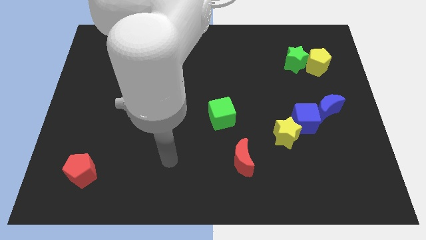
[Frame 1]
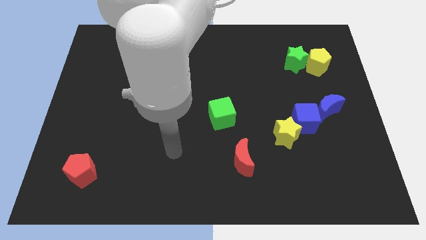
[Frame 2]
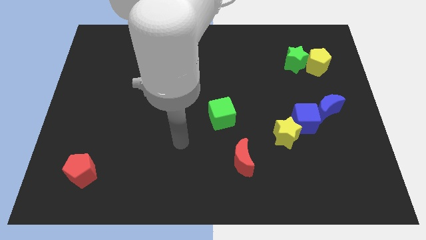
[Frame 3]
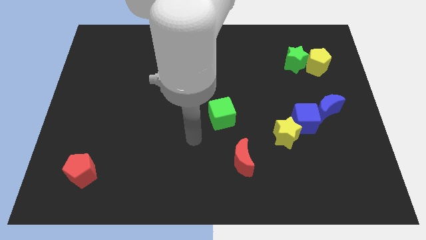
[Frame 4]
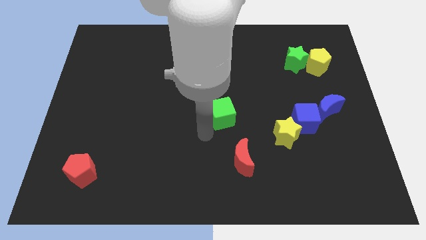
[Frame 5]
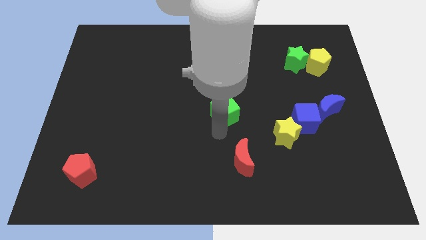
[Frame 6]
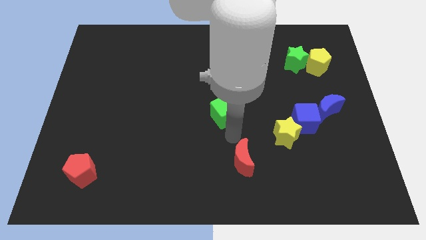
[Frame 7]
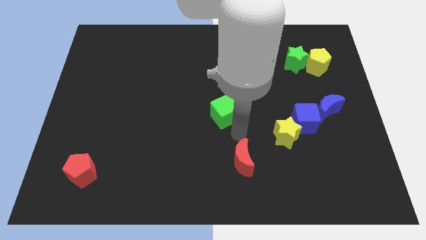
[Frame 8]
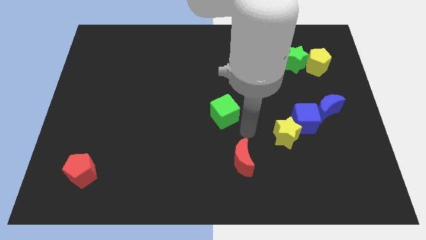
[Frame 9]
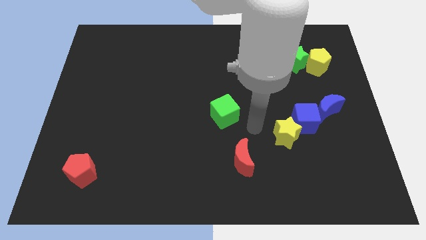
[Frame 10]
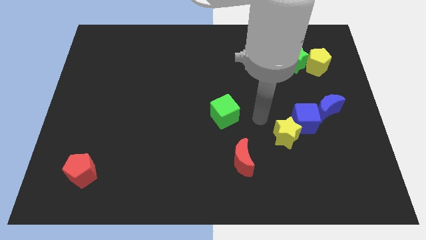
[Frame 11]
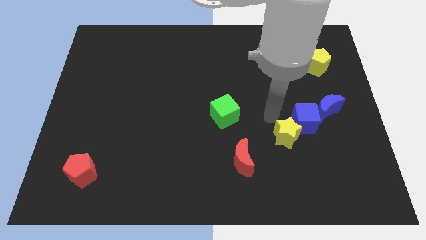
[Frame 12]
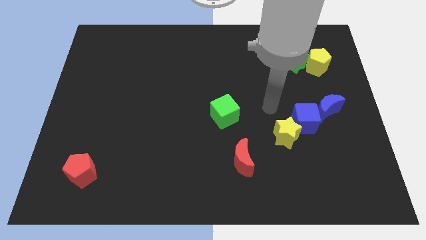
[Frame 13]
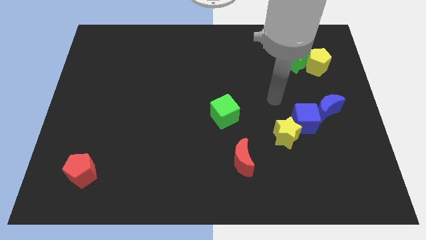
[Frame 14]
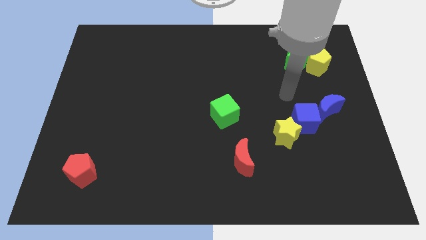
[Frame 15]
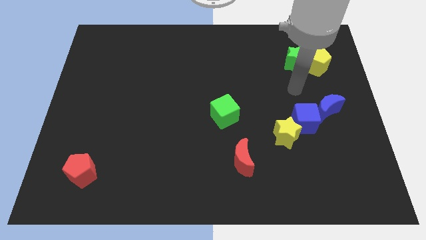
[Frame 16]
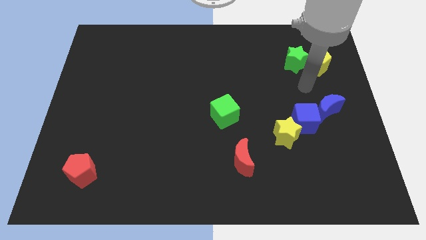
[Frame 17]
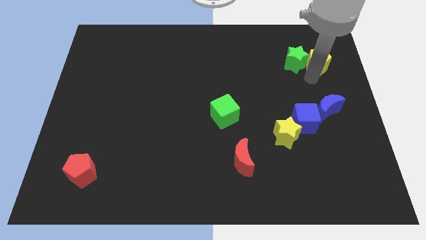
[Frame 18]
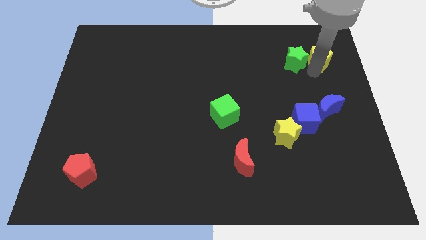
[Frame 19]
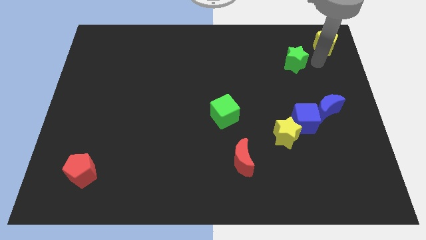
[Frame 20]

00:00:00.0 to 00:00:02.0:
separate the green star from the yellow pentagon

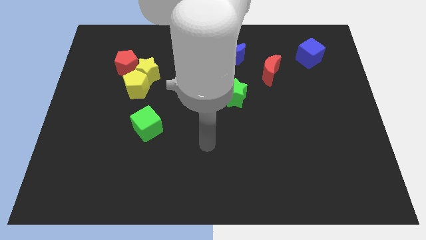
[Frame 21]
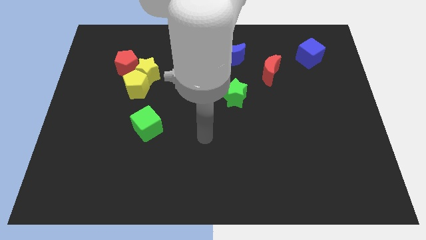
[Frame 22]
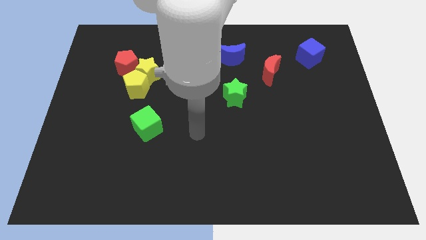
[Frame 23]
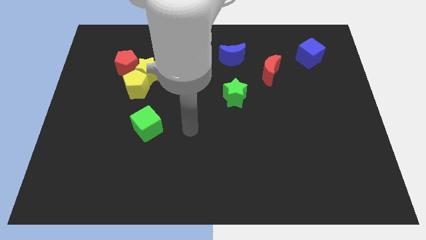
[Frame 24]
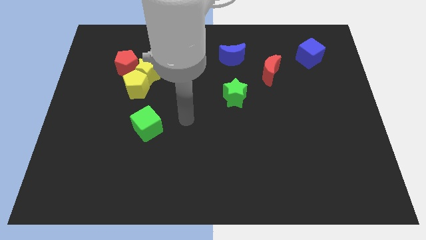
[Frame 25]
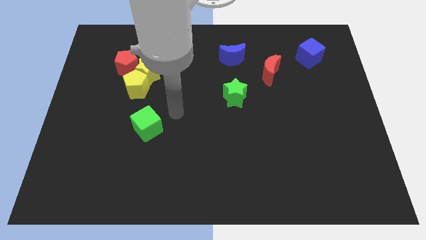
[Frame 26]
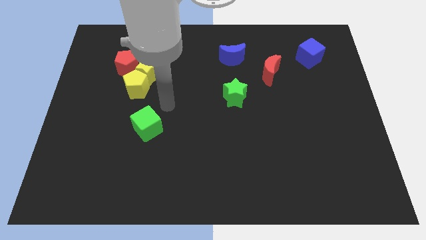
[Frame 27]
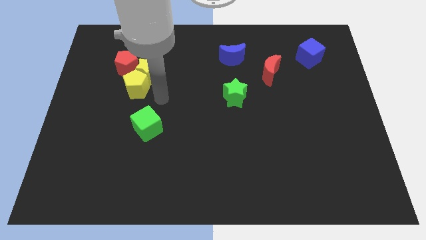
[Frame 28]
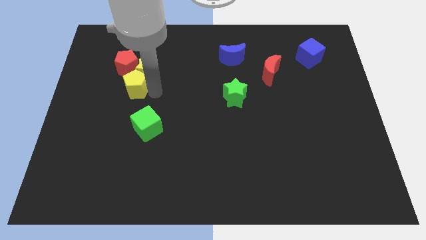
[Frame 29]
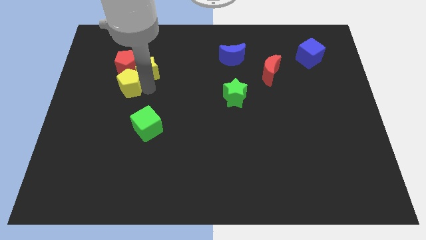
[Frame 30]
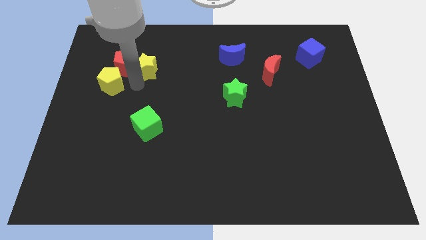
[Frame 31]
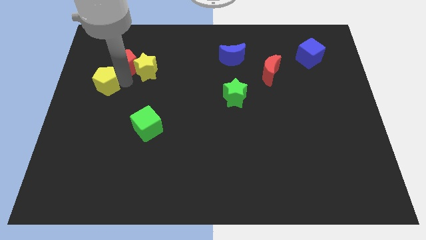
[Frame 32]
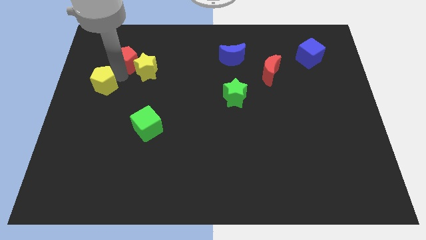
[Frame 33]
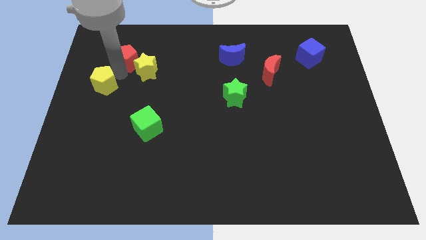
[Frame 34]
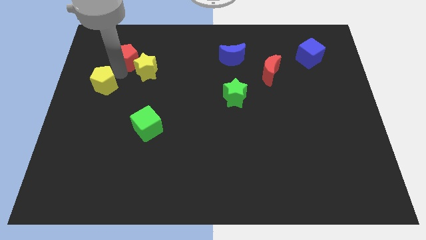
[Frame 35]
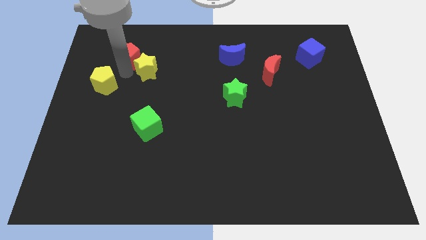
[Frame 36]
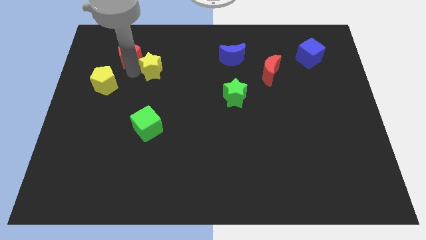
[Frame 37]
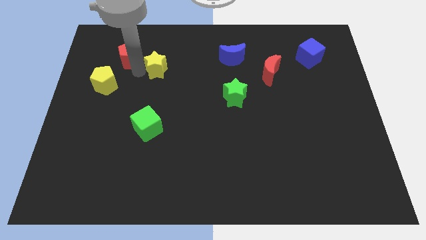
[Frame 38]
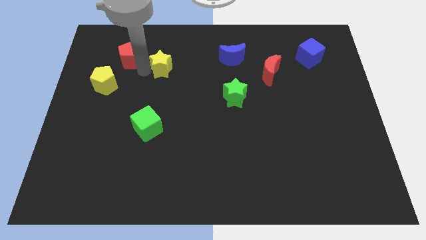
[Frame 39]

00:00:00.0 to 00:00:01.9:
pull the yellow star apart from the yellow pentagon and red pentagon

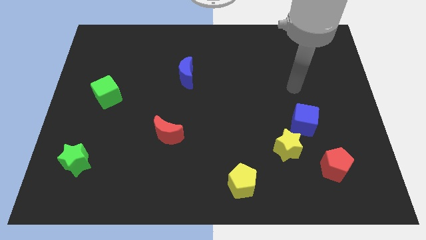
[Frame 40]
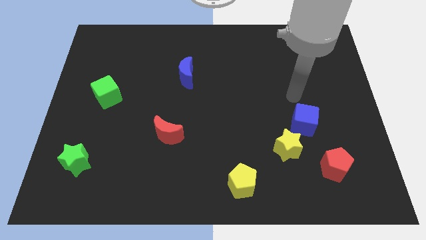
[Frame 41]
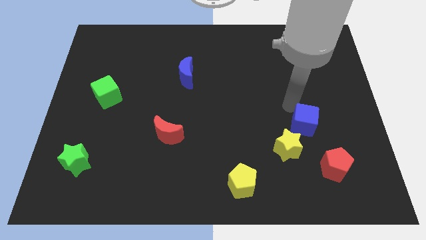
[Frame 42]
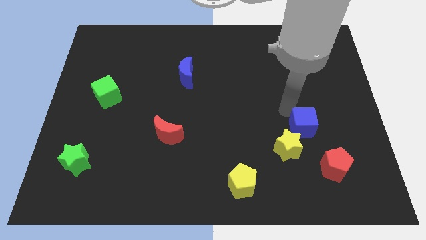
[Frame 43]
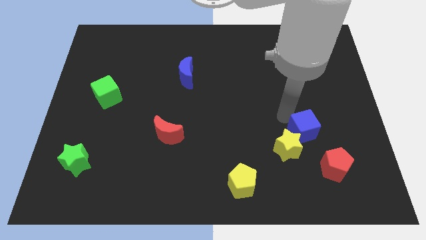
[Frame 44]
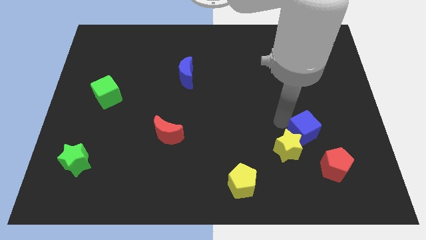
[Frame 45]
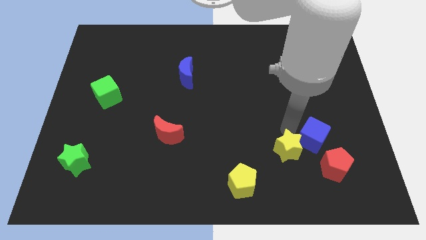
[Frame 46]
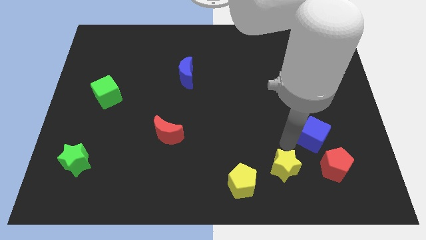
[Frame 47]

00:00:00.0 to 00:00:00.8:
separate the blue cube from the yellow star

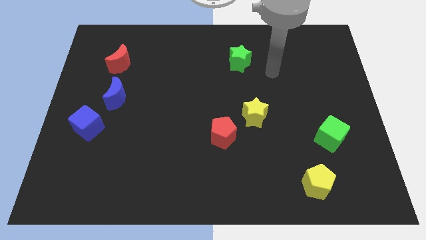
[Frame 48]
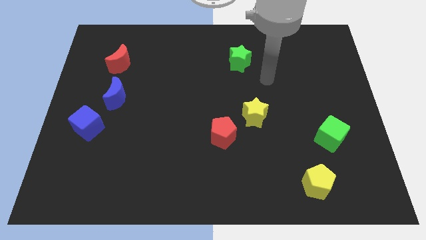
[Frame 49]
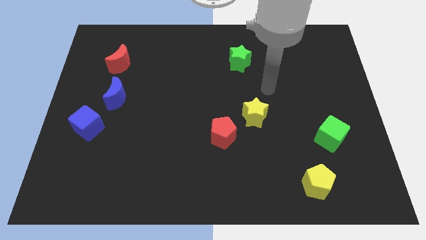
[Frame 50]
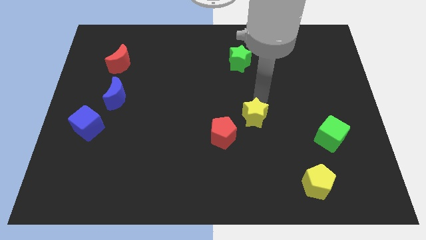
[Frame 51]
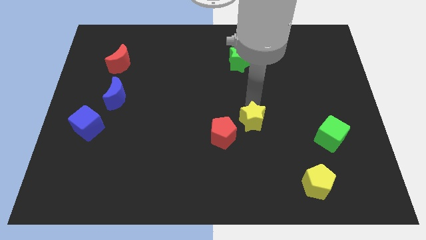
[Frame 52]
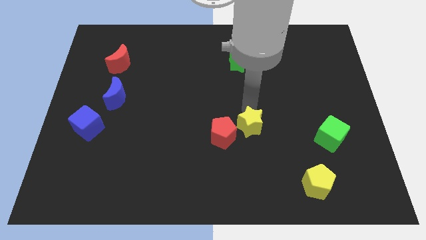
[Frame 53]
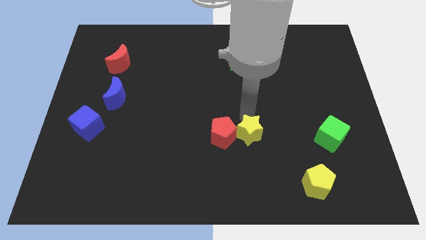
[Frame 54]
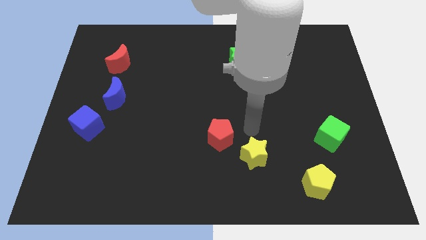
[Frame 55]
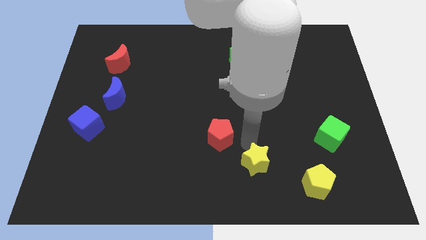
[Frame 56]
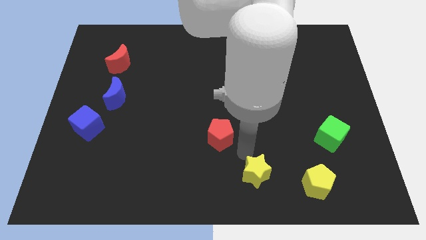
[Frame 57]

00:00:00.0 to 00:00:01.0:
pull the red pentagon apart from the yellow star

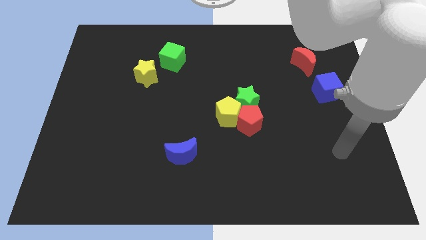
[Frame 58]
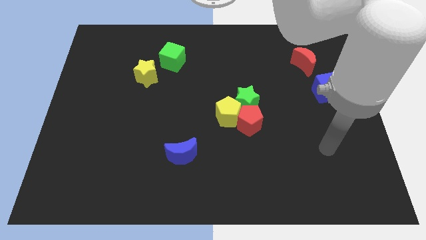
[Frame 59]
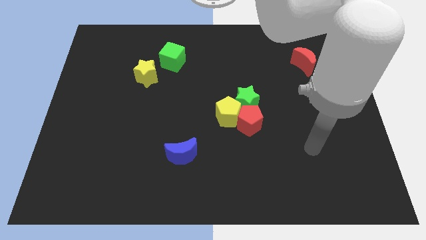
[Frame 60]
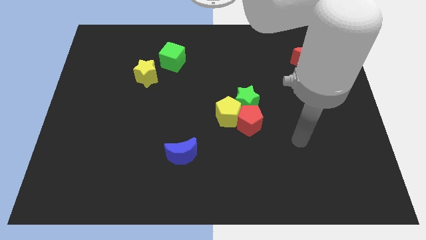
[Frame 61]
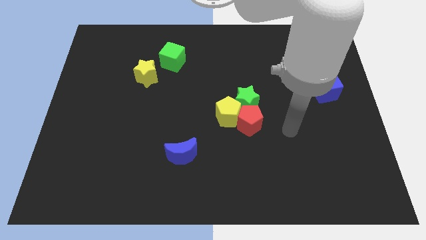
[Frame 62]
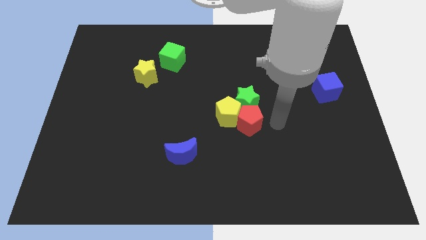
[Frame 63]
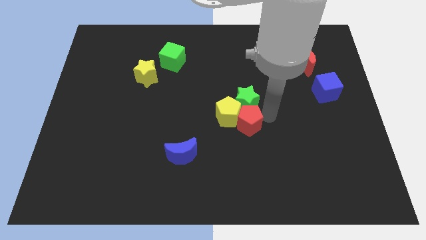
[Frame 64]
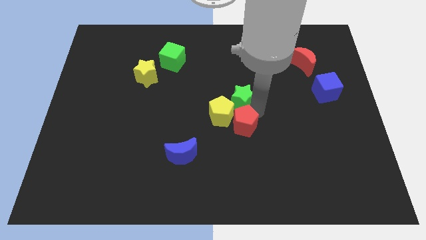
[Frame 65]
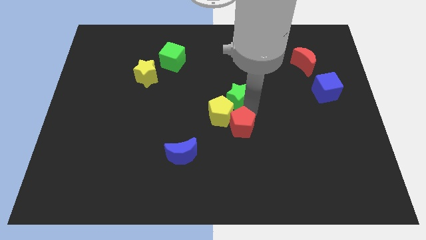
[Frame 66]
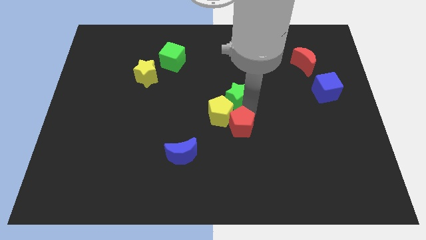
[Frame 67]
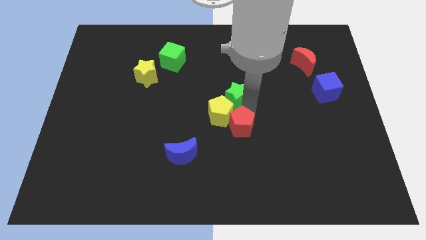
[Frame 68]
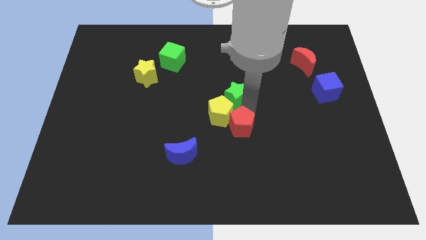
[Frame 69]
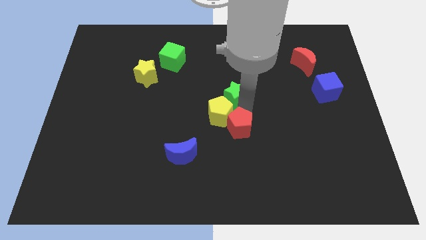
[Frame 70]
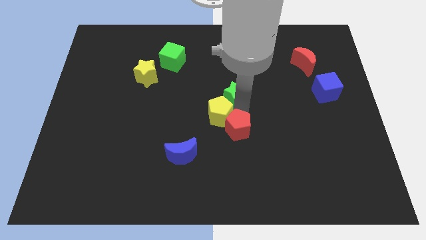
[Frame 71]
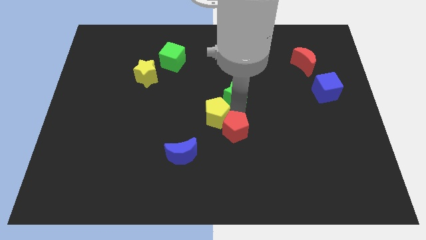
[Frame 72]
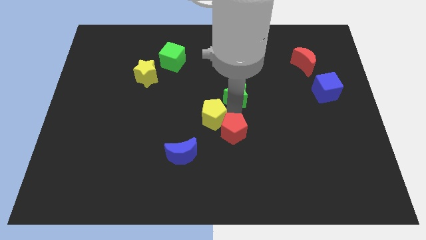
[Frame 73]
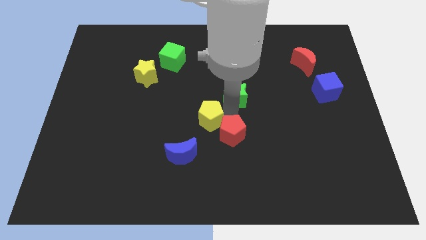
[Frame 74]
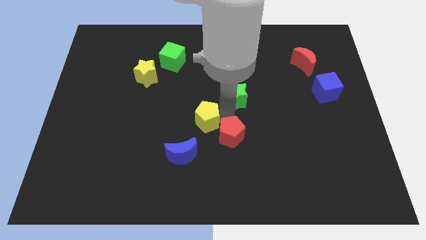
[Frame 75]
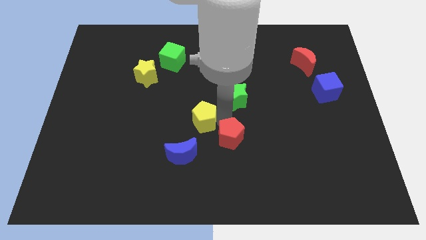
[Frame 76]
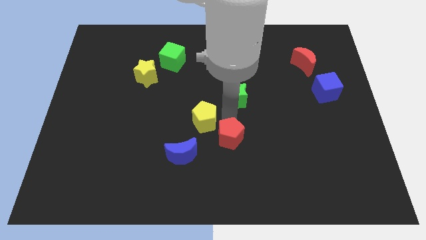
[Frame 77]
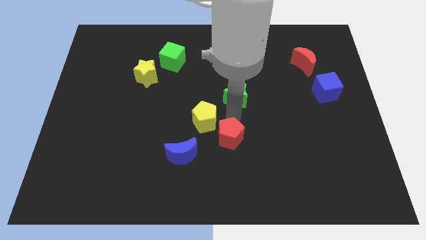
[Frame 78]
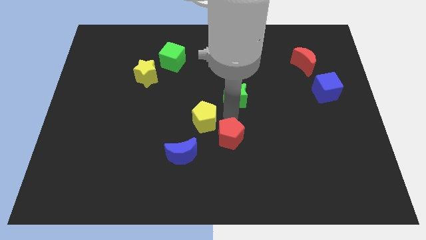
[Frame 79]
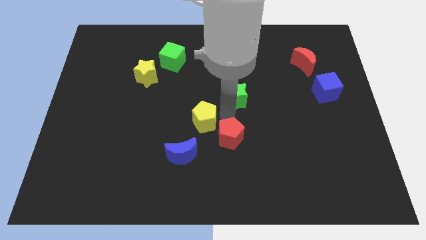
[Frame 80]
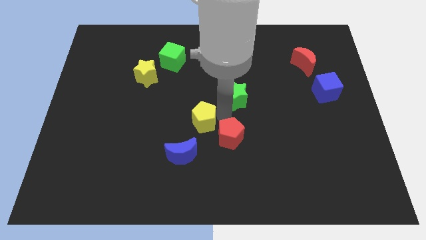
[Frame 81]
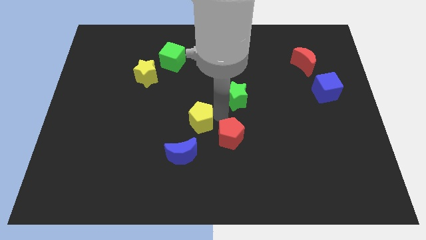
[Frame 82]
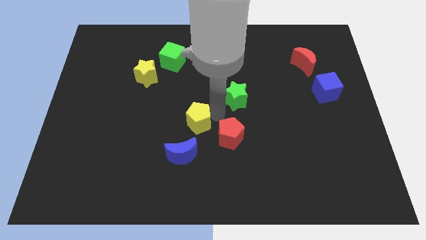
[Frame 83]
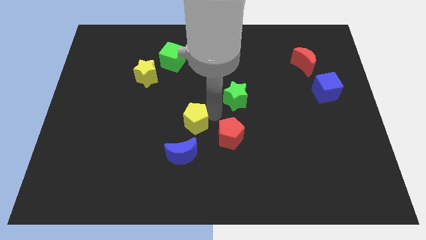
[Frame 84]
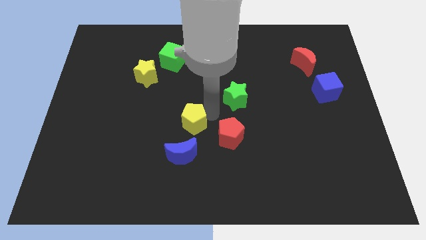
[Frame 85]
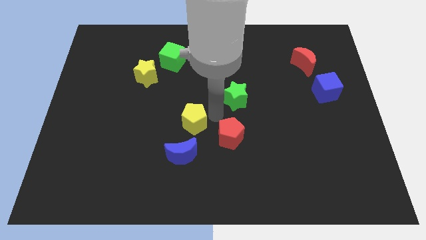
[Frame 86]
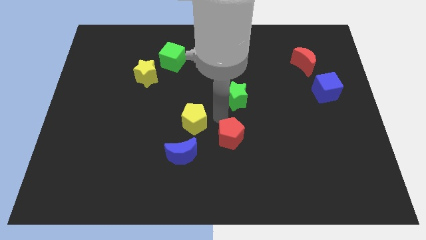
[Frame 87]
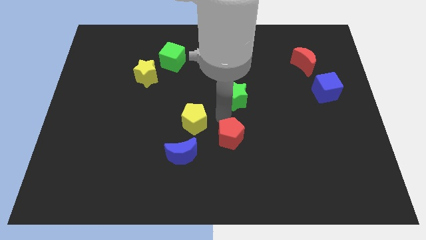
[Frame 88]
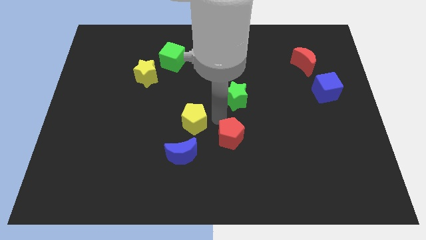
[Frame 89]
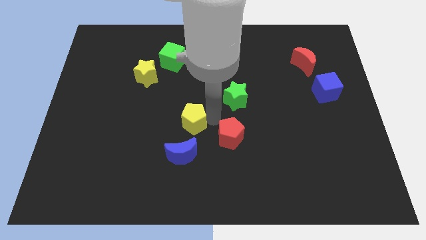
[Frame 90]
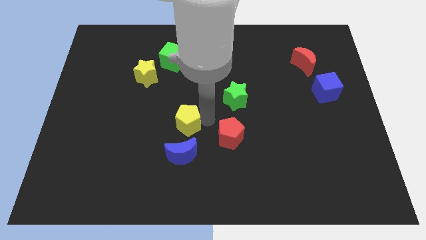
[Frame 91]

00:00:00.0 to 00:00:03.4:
move the yellow pentagon away from the red pentagon and green star

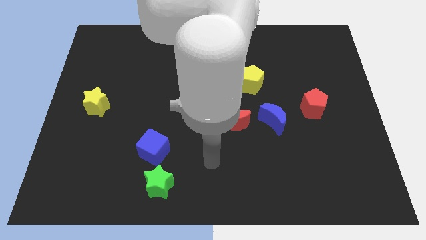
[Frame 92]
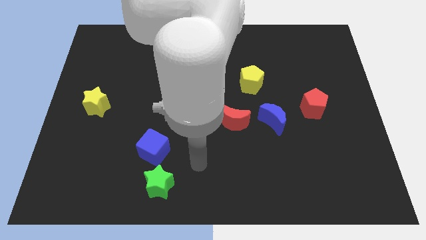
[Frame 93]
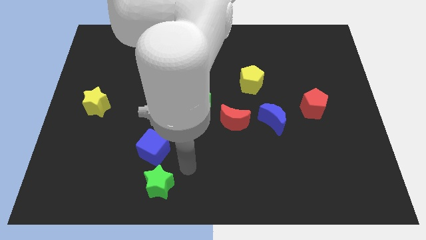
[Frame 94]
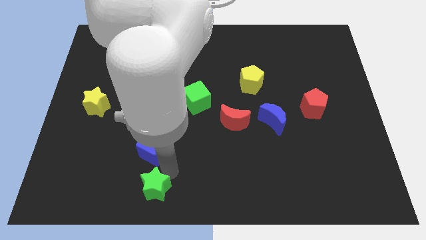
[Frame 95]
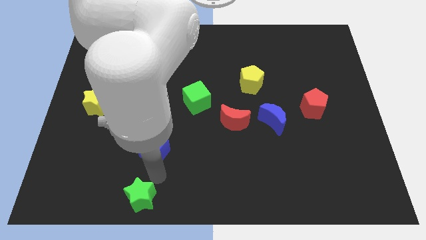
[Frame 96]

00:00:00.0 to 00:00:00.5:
move the blue cube away from the green star
